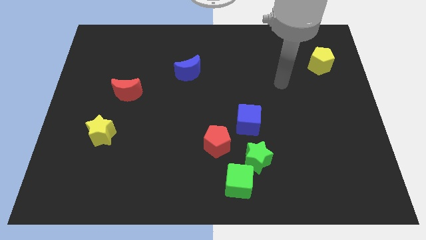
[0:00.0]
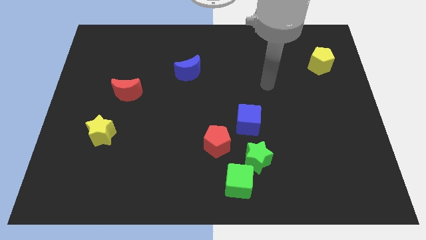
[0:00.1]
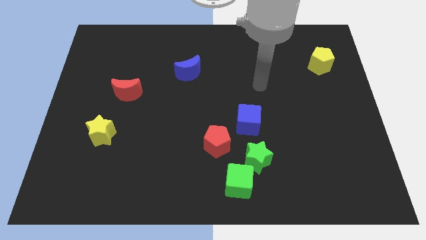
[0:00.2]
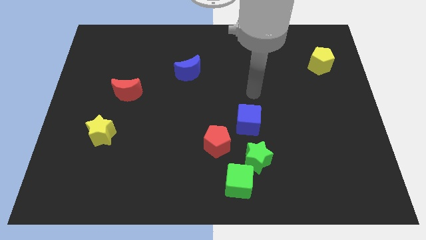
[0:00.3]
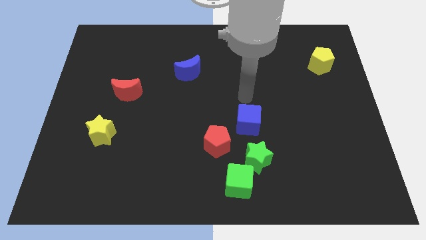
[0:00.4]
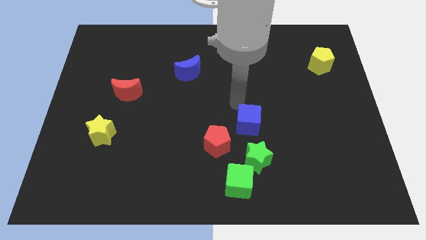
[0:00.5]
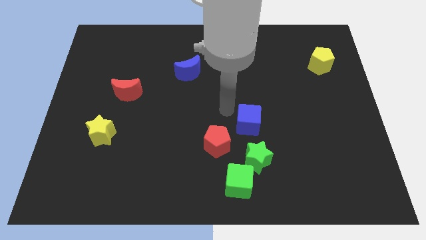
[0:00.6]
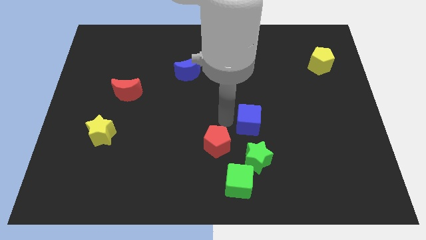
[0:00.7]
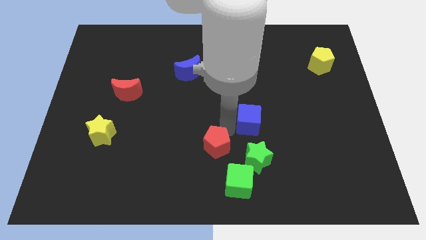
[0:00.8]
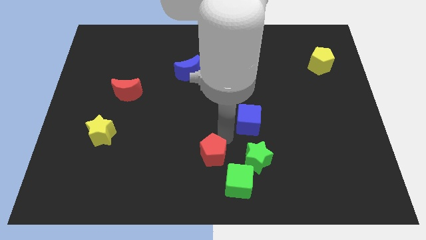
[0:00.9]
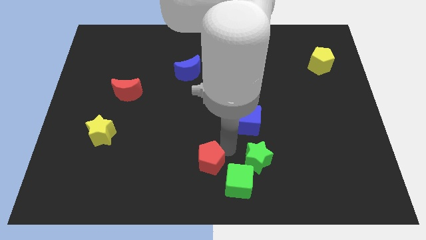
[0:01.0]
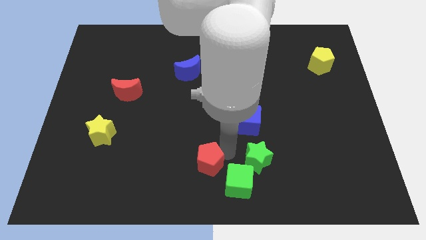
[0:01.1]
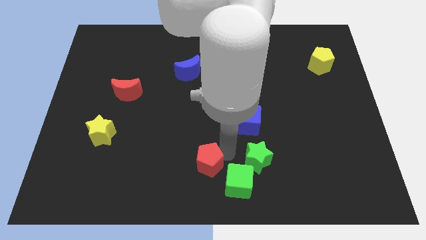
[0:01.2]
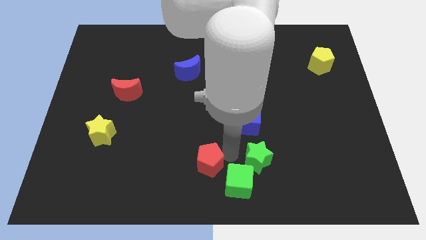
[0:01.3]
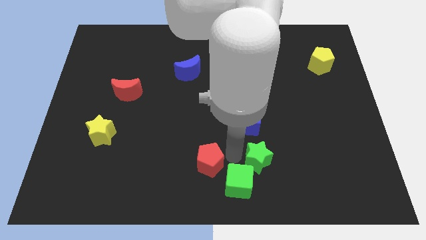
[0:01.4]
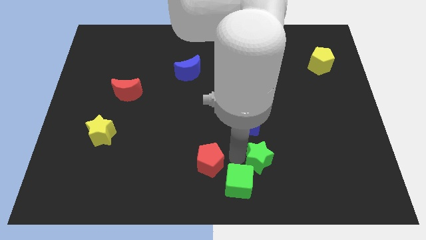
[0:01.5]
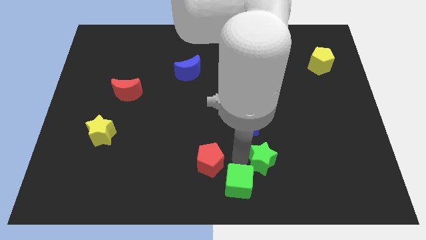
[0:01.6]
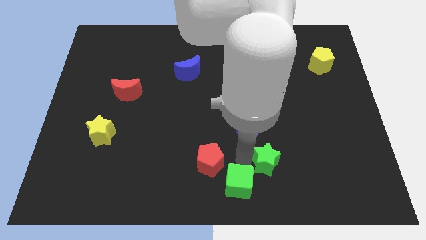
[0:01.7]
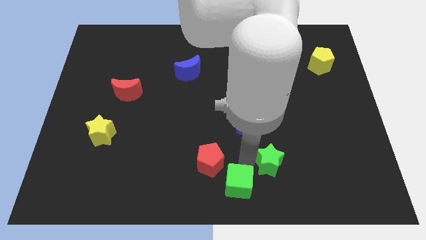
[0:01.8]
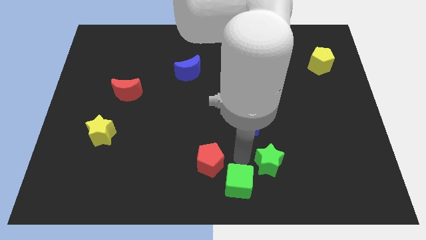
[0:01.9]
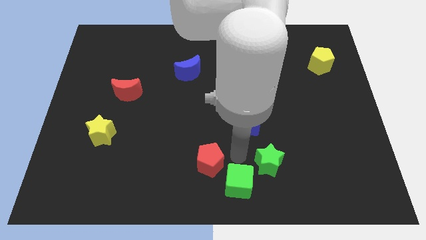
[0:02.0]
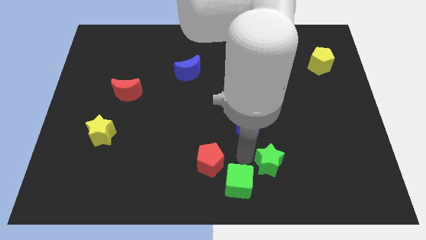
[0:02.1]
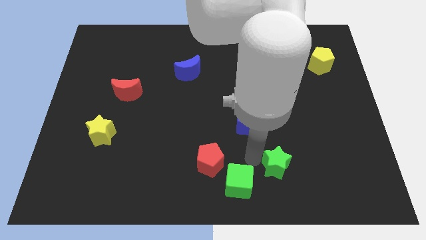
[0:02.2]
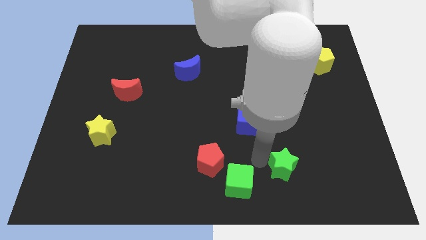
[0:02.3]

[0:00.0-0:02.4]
separate the green star from the clump

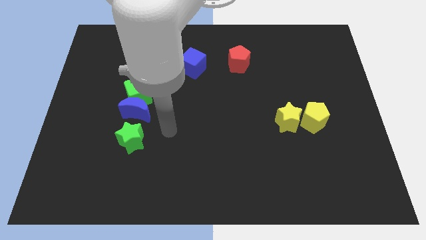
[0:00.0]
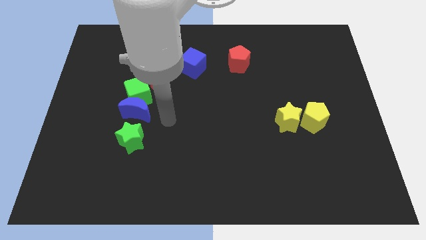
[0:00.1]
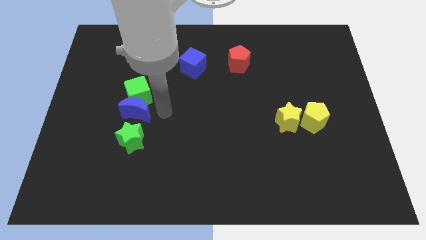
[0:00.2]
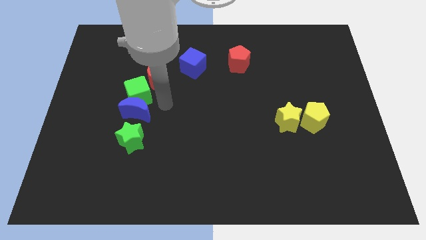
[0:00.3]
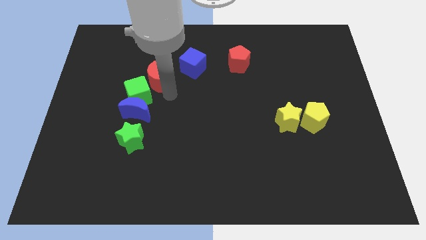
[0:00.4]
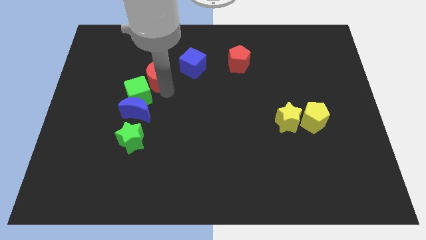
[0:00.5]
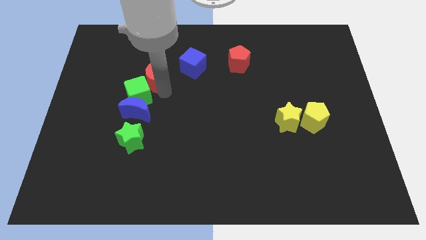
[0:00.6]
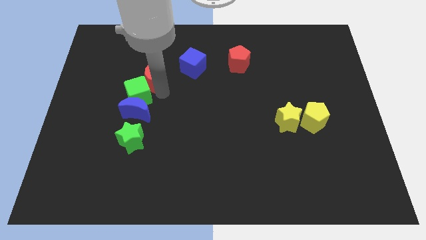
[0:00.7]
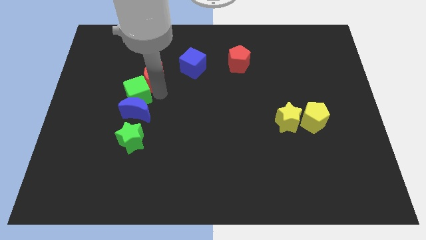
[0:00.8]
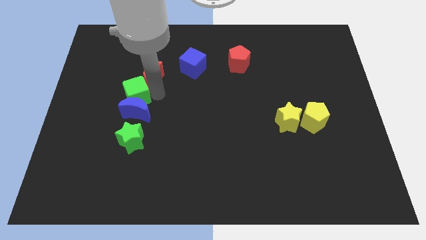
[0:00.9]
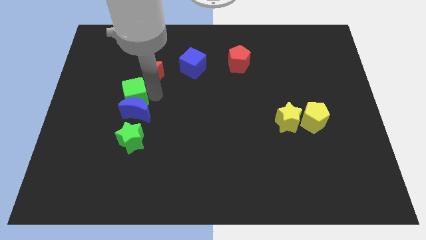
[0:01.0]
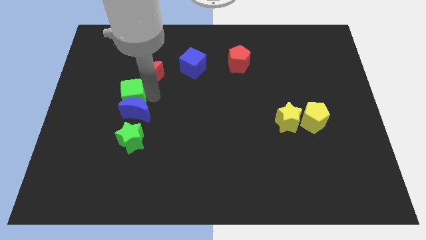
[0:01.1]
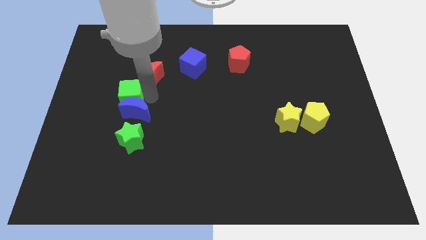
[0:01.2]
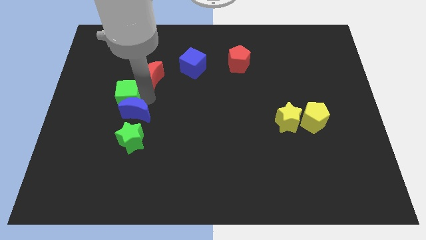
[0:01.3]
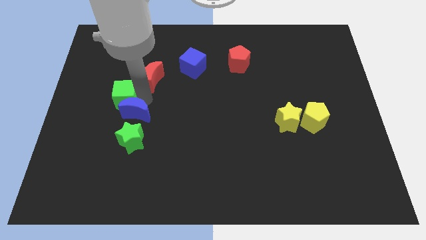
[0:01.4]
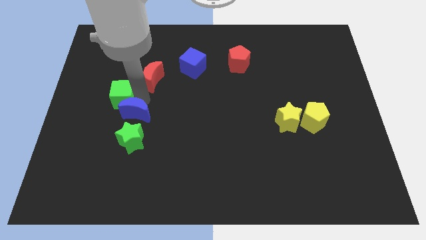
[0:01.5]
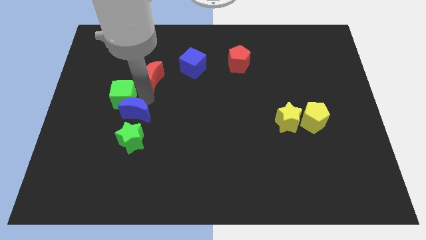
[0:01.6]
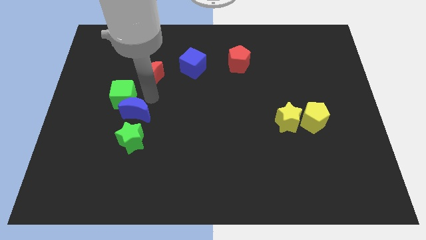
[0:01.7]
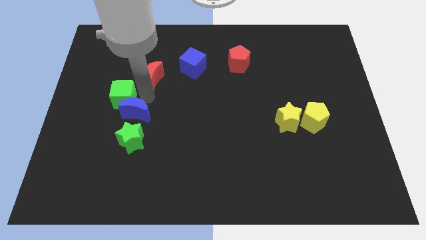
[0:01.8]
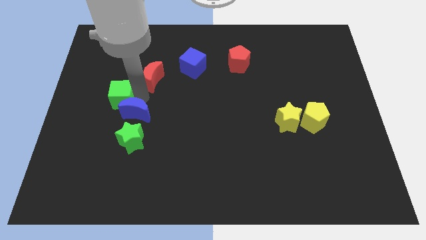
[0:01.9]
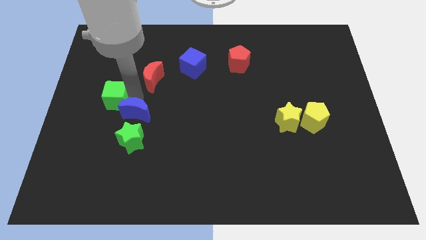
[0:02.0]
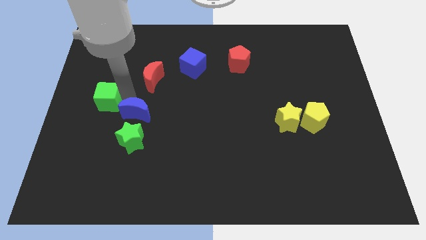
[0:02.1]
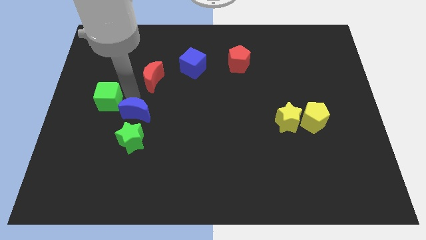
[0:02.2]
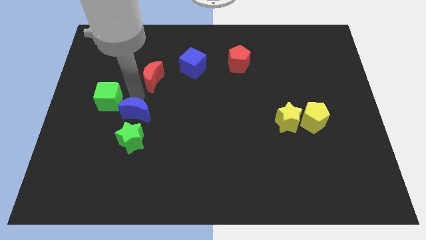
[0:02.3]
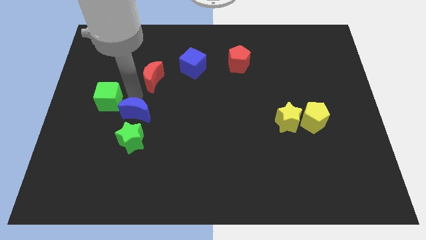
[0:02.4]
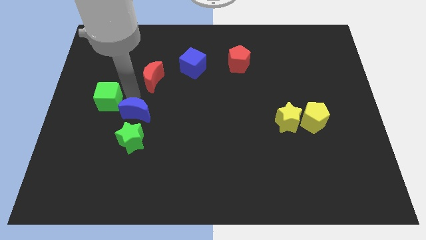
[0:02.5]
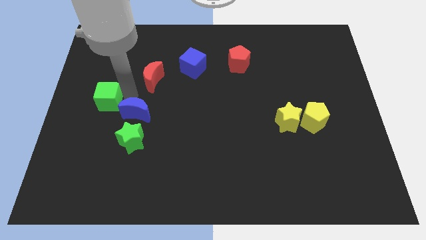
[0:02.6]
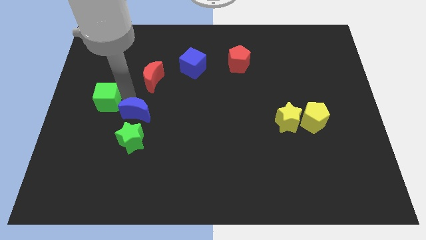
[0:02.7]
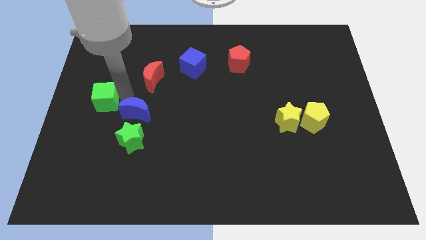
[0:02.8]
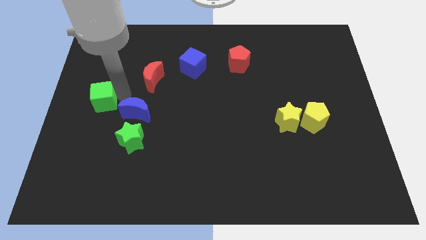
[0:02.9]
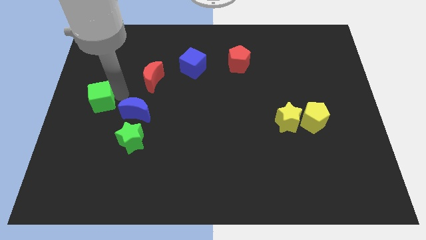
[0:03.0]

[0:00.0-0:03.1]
pull the green cube apart from the blue moon and red moon

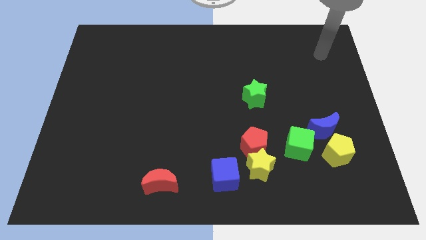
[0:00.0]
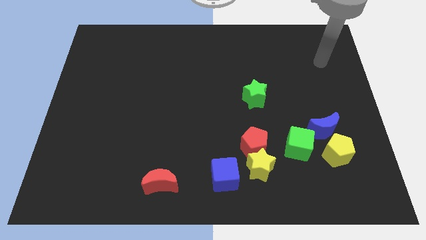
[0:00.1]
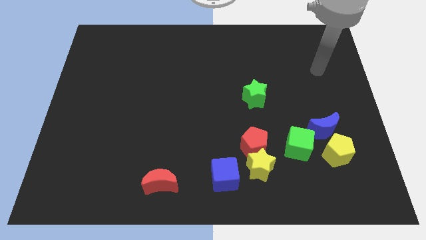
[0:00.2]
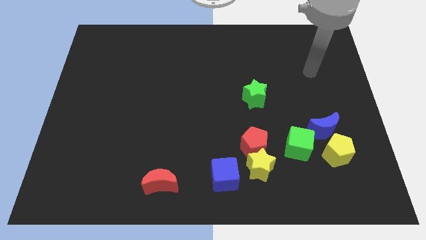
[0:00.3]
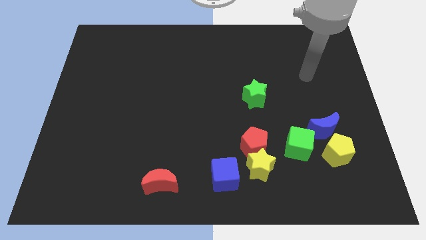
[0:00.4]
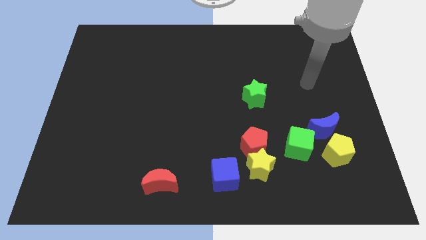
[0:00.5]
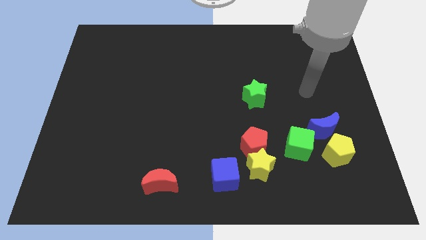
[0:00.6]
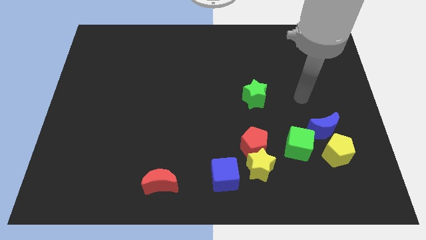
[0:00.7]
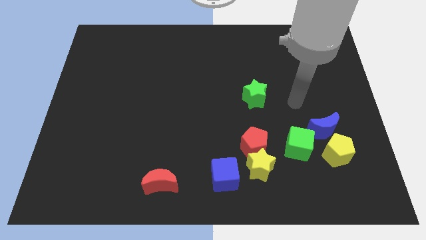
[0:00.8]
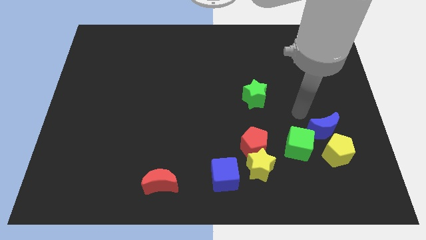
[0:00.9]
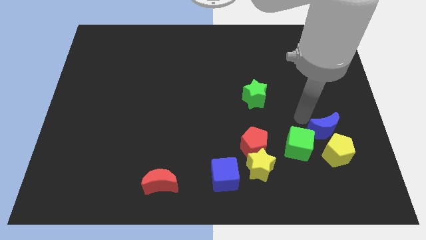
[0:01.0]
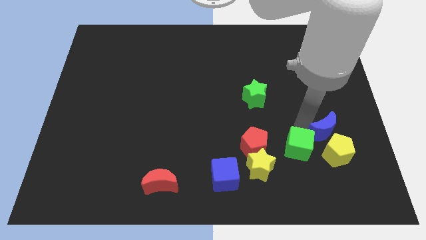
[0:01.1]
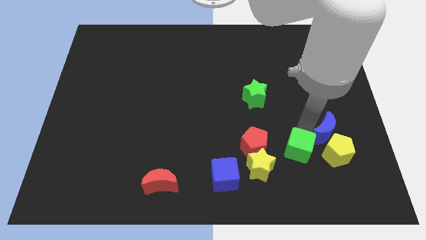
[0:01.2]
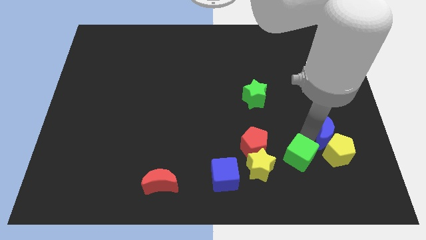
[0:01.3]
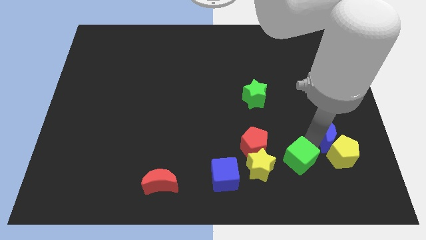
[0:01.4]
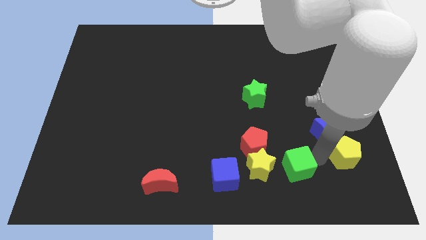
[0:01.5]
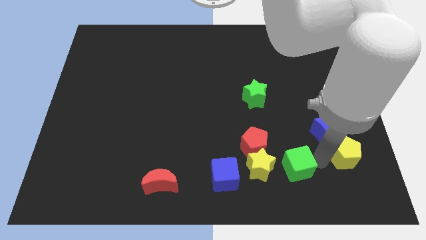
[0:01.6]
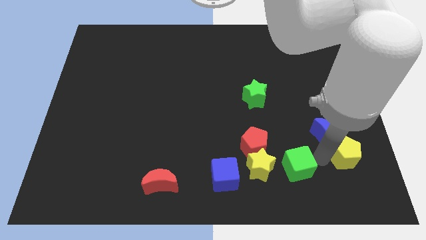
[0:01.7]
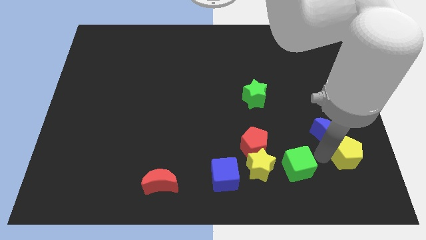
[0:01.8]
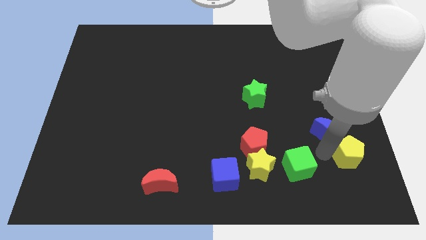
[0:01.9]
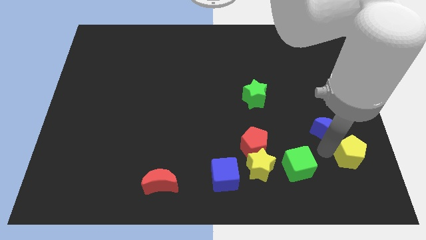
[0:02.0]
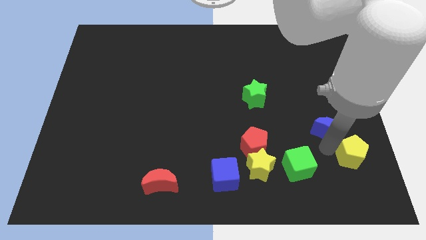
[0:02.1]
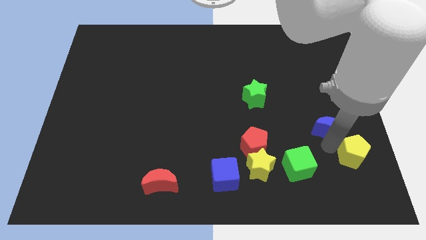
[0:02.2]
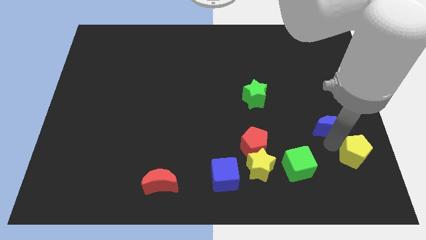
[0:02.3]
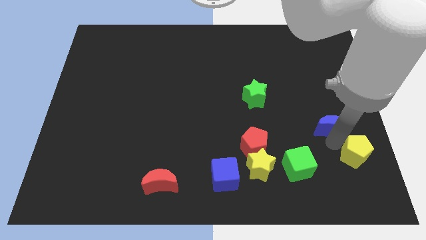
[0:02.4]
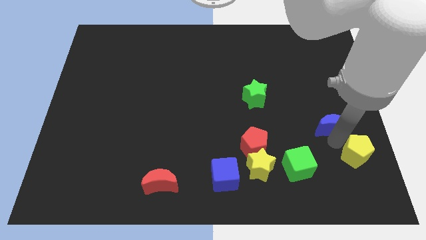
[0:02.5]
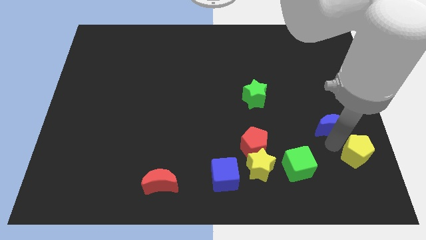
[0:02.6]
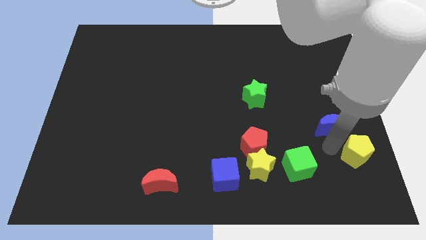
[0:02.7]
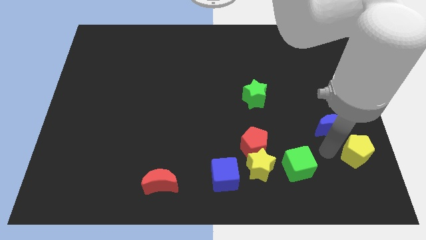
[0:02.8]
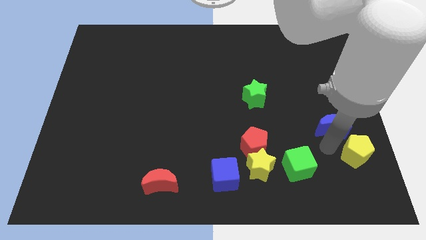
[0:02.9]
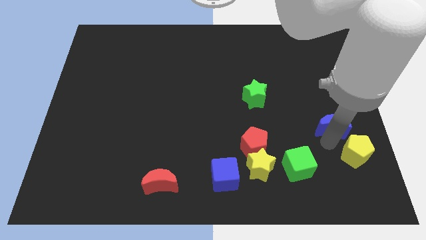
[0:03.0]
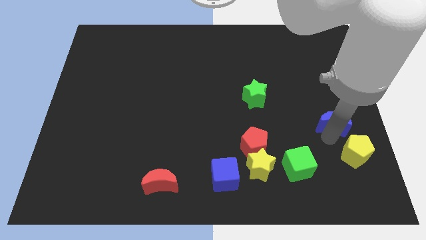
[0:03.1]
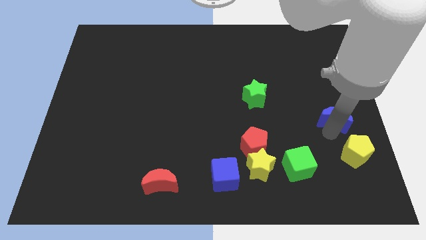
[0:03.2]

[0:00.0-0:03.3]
pull the blue moon apart from the yellow pentagon and green cube

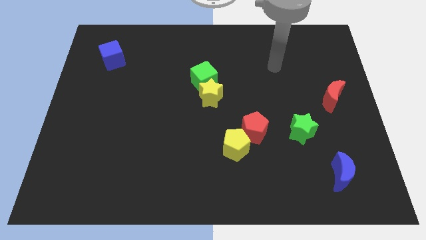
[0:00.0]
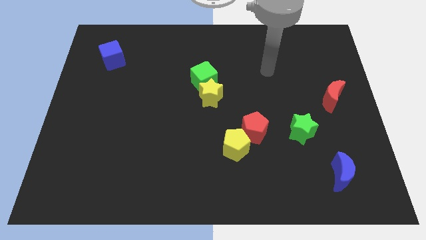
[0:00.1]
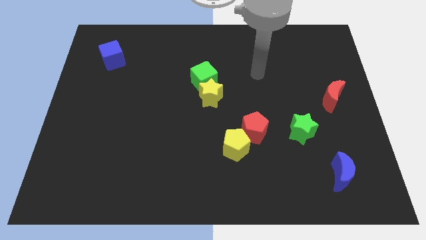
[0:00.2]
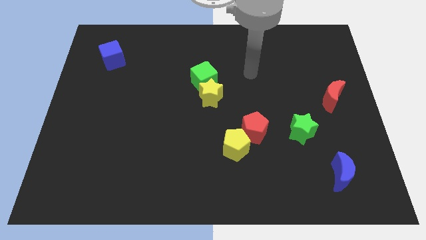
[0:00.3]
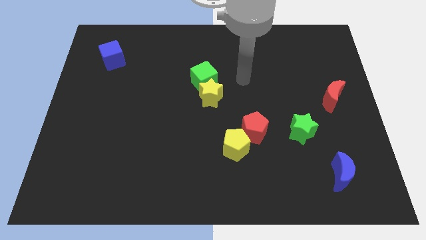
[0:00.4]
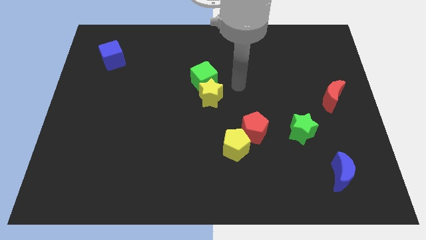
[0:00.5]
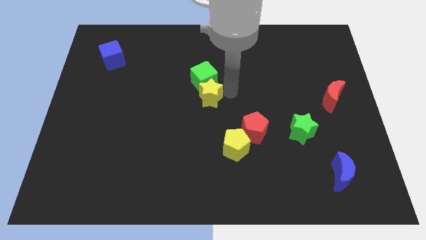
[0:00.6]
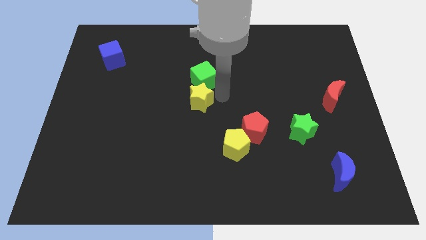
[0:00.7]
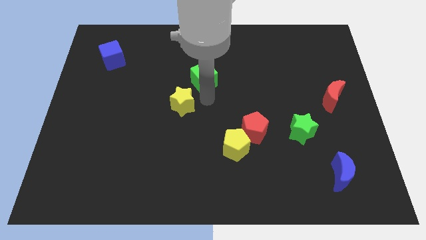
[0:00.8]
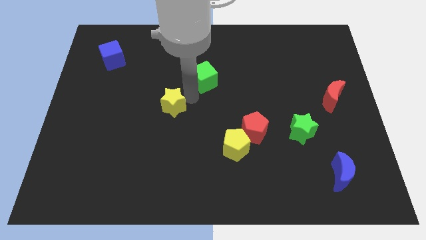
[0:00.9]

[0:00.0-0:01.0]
move the green cube away from the yellow star
